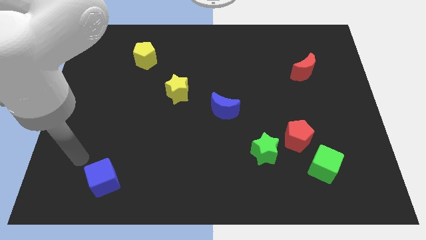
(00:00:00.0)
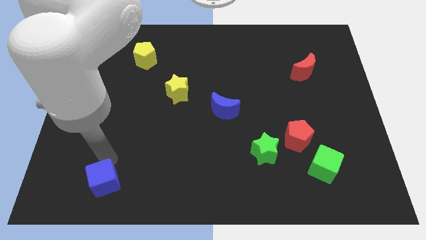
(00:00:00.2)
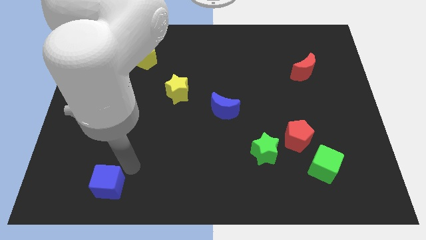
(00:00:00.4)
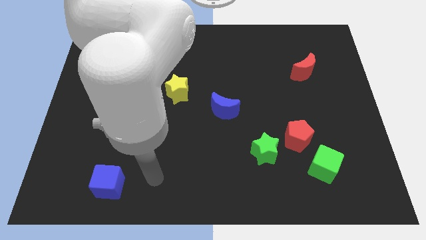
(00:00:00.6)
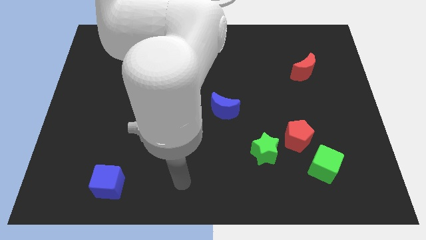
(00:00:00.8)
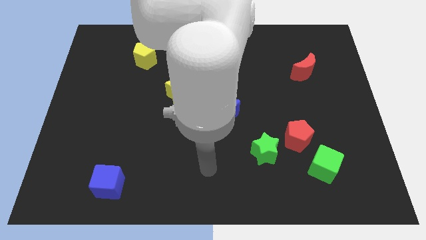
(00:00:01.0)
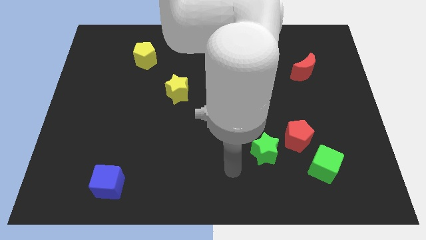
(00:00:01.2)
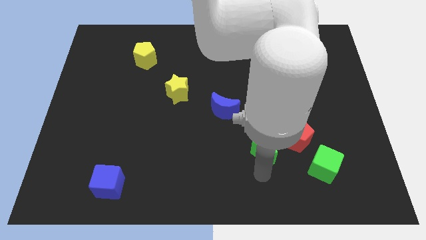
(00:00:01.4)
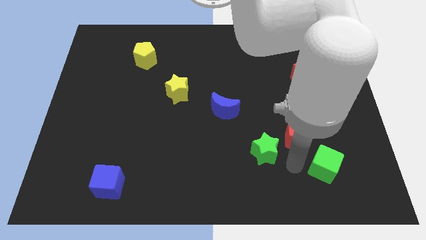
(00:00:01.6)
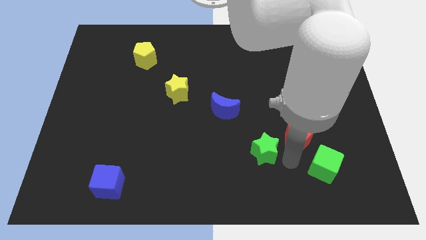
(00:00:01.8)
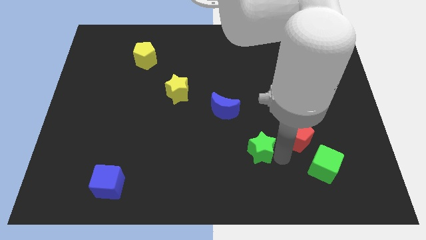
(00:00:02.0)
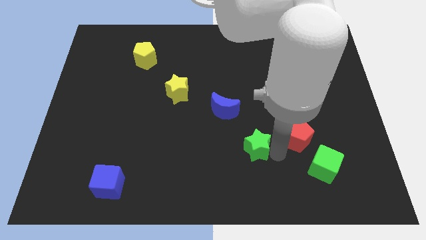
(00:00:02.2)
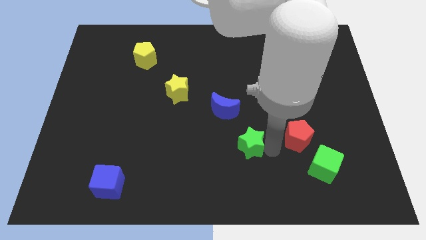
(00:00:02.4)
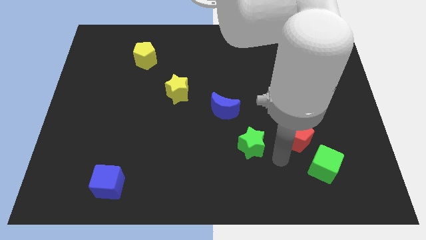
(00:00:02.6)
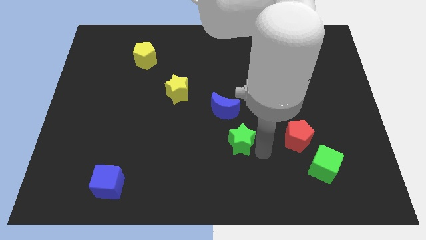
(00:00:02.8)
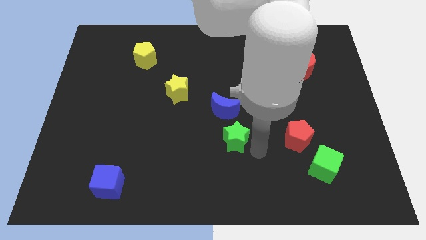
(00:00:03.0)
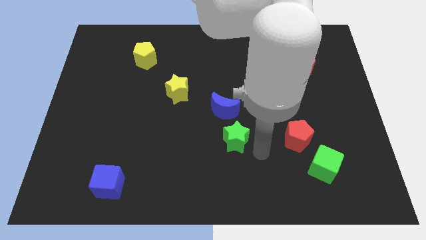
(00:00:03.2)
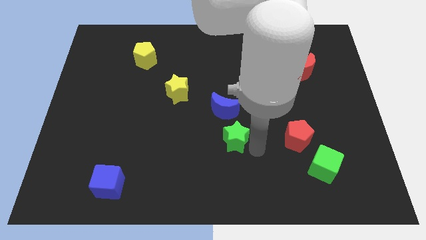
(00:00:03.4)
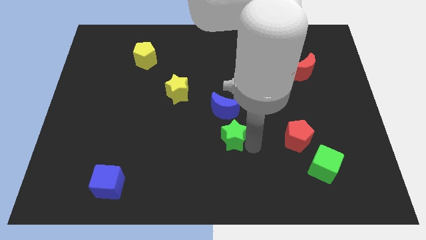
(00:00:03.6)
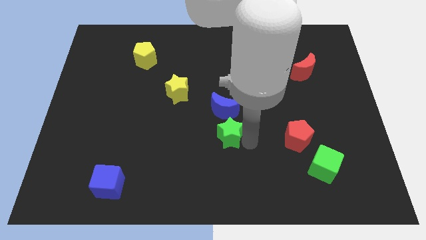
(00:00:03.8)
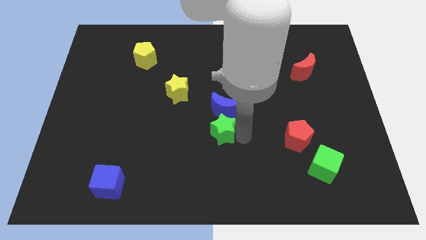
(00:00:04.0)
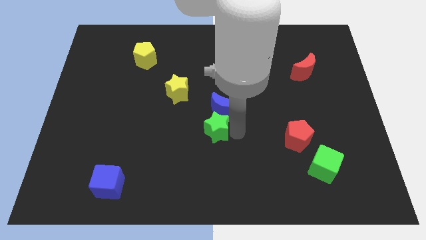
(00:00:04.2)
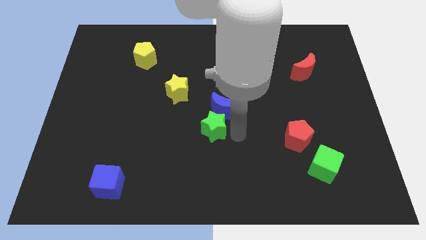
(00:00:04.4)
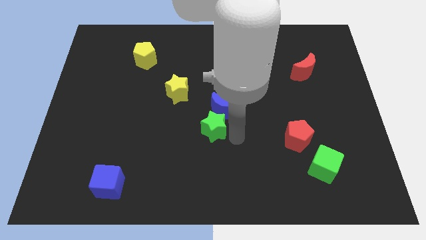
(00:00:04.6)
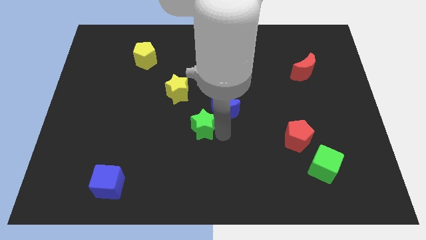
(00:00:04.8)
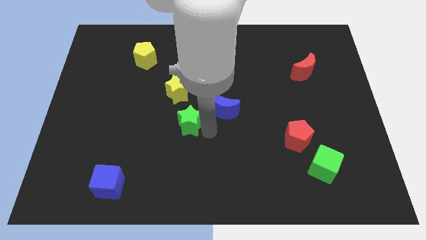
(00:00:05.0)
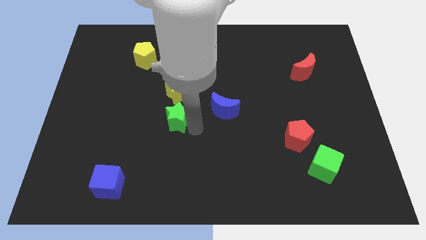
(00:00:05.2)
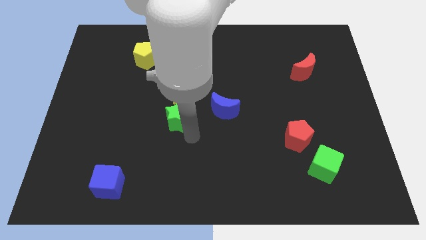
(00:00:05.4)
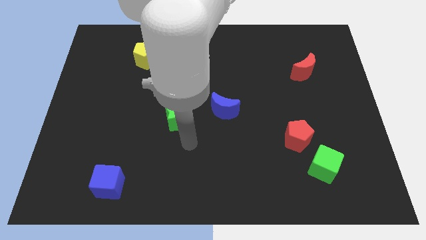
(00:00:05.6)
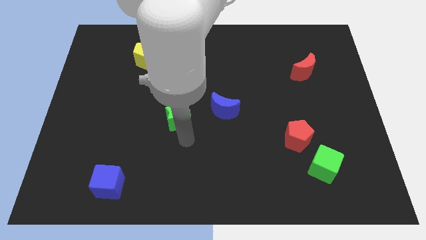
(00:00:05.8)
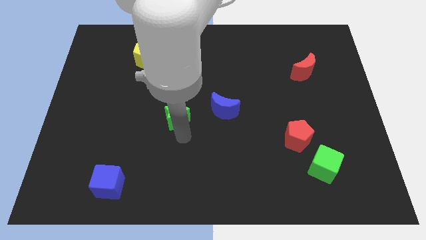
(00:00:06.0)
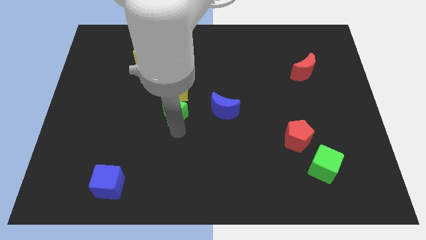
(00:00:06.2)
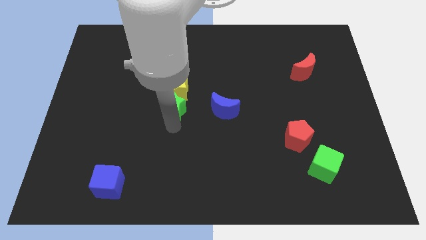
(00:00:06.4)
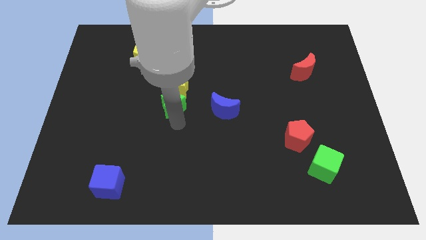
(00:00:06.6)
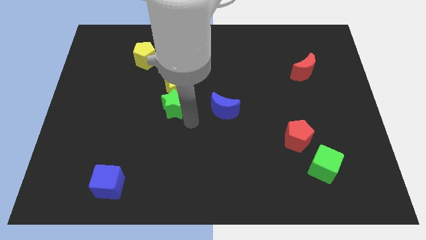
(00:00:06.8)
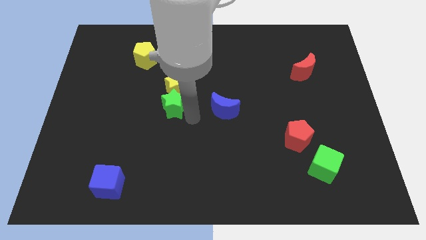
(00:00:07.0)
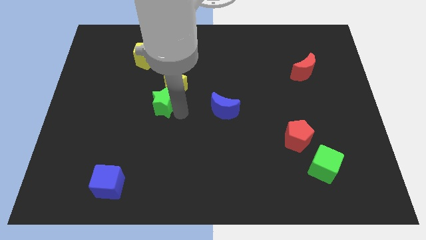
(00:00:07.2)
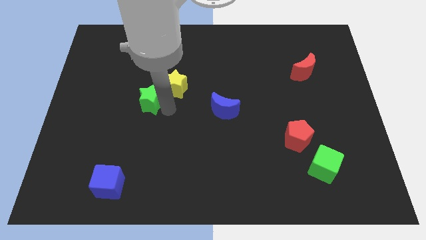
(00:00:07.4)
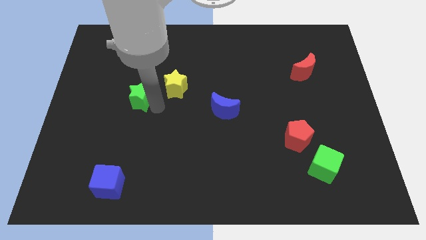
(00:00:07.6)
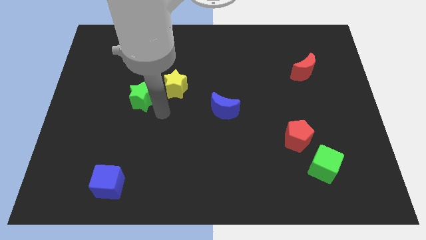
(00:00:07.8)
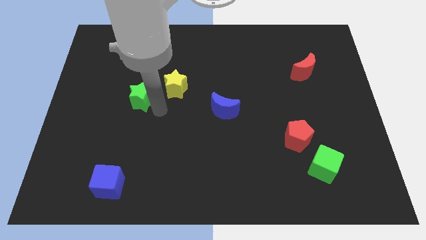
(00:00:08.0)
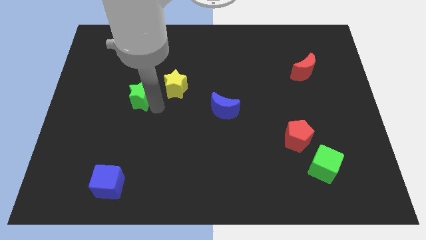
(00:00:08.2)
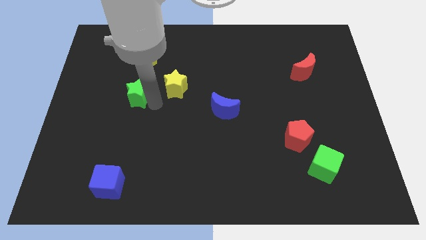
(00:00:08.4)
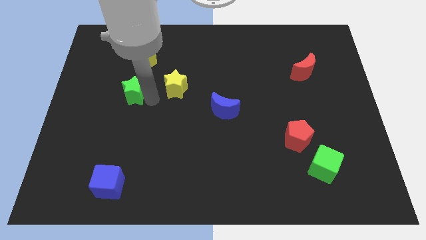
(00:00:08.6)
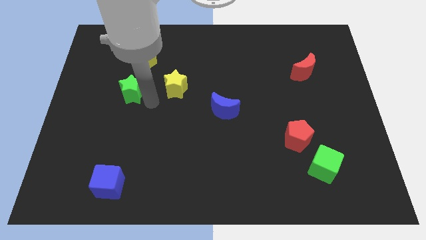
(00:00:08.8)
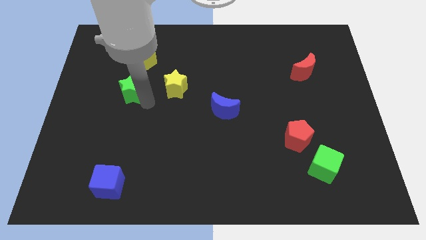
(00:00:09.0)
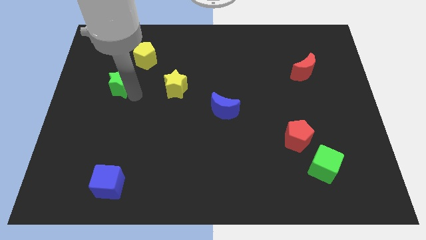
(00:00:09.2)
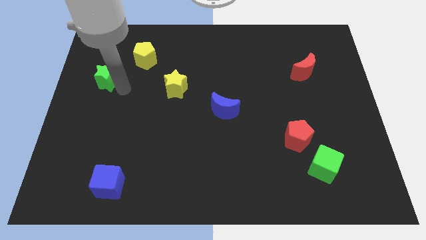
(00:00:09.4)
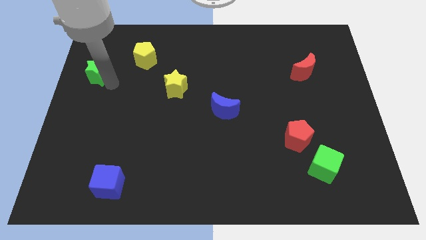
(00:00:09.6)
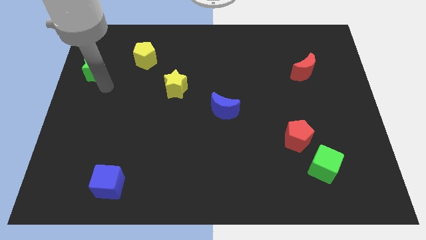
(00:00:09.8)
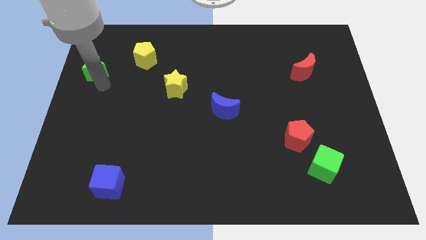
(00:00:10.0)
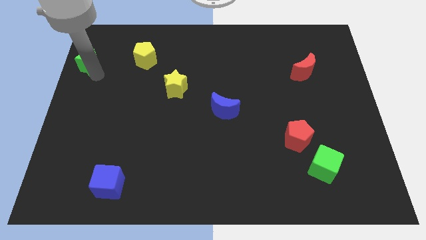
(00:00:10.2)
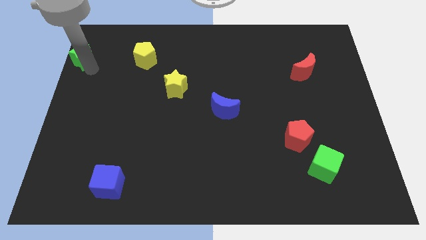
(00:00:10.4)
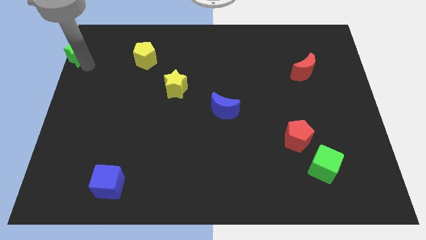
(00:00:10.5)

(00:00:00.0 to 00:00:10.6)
push the green star to the upper left corner

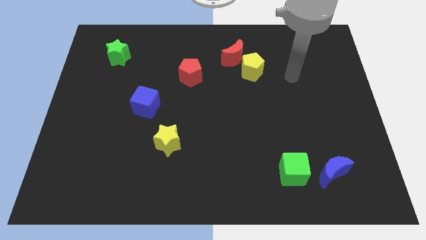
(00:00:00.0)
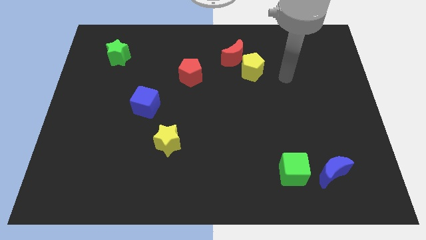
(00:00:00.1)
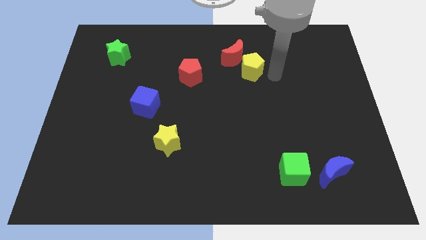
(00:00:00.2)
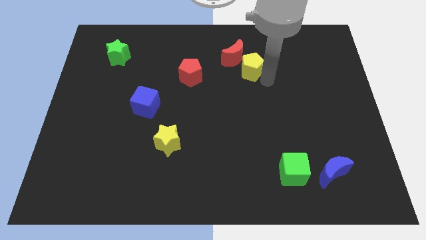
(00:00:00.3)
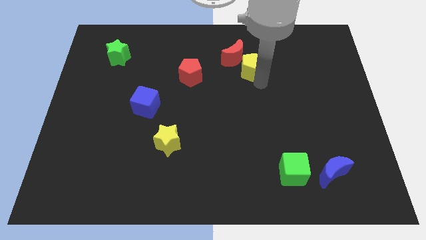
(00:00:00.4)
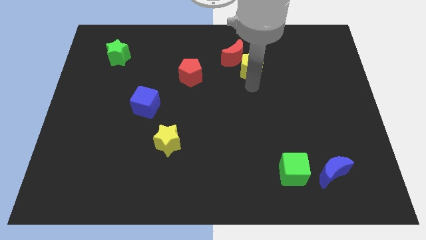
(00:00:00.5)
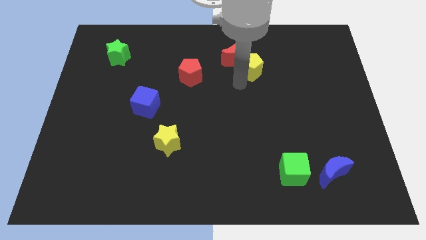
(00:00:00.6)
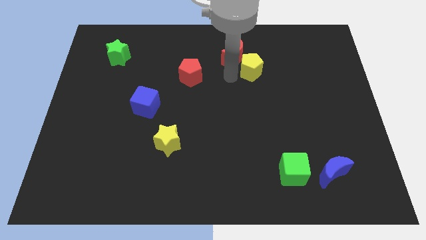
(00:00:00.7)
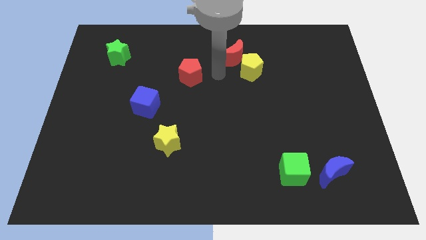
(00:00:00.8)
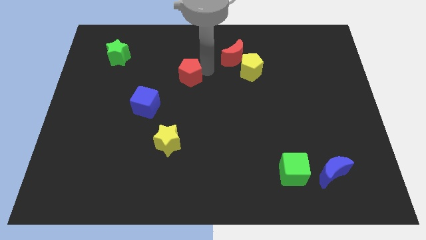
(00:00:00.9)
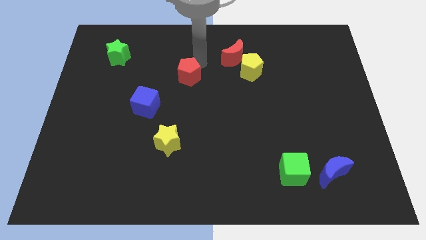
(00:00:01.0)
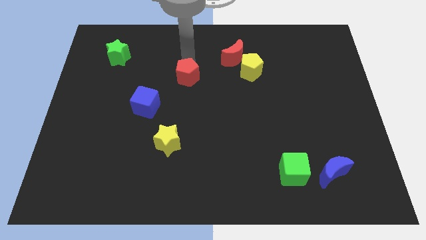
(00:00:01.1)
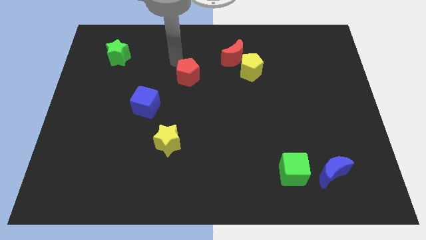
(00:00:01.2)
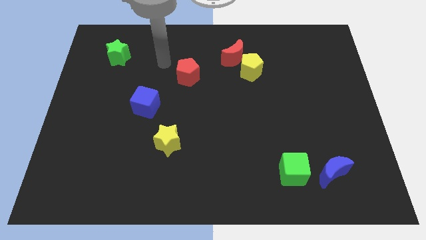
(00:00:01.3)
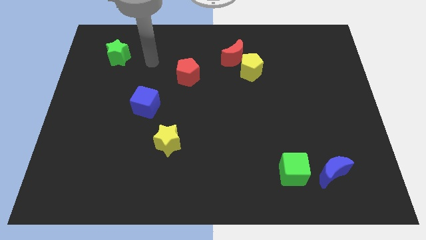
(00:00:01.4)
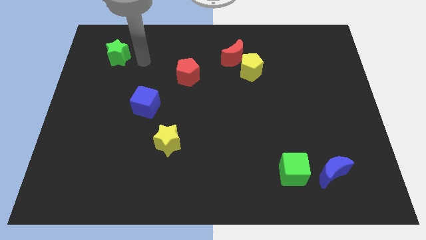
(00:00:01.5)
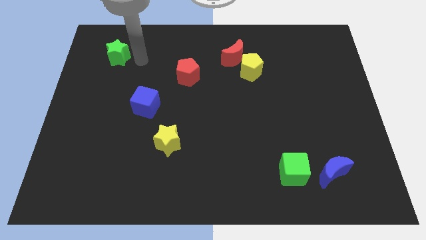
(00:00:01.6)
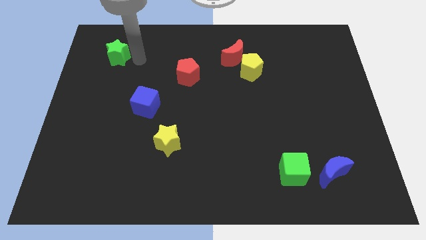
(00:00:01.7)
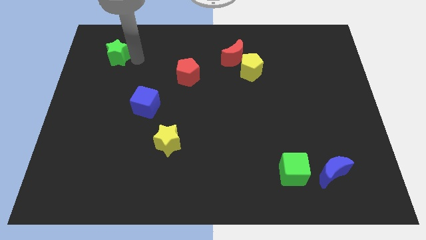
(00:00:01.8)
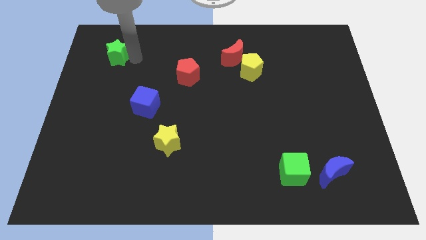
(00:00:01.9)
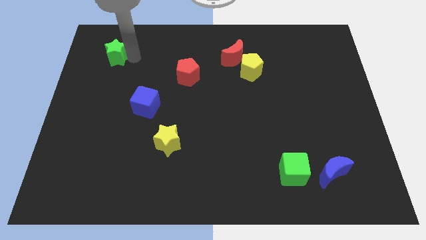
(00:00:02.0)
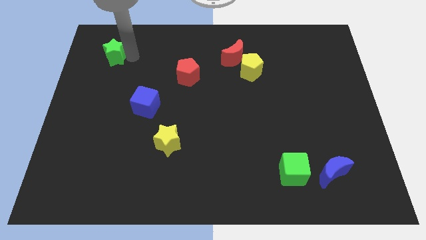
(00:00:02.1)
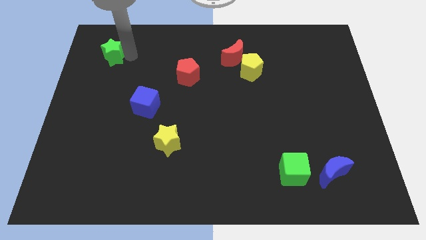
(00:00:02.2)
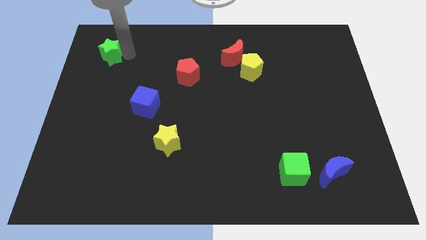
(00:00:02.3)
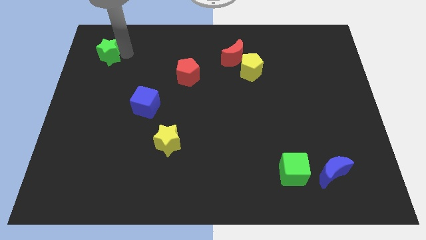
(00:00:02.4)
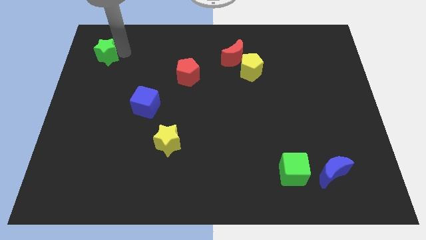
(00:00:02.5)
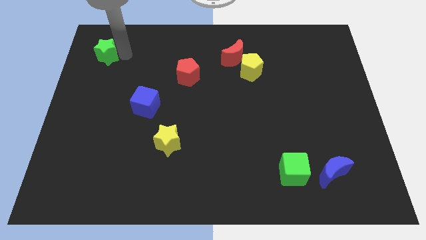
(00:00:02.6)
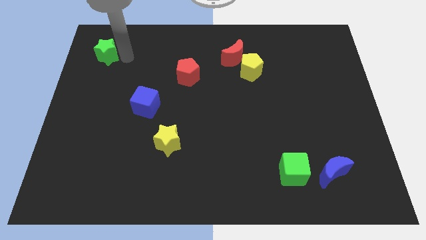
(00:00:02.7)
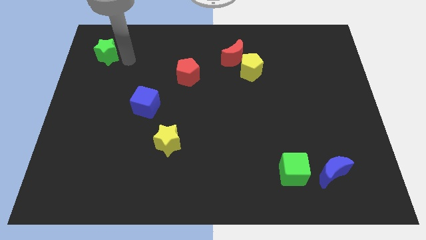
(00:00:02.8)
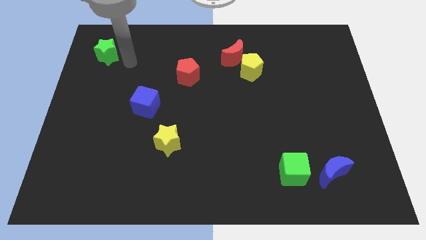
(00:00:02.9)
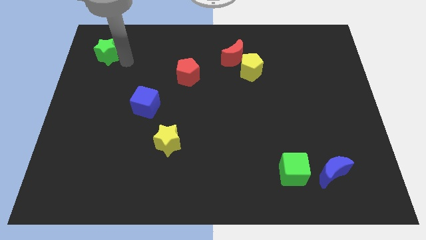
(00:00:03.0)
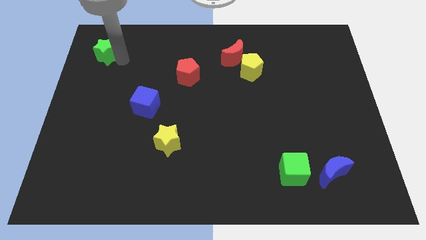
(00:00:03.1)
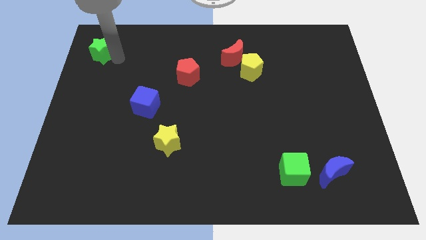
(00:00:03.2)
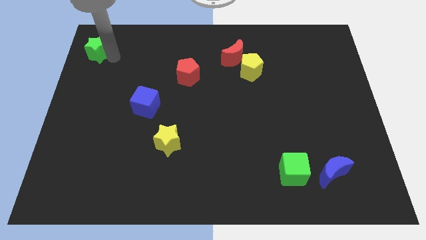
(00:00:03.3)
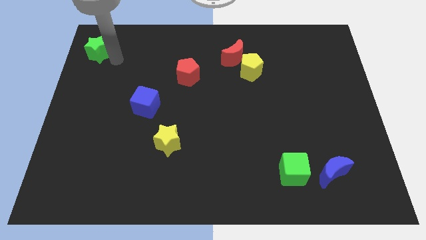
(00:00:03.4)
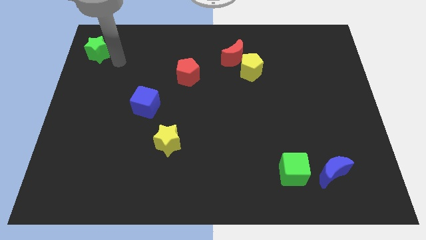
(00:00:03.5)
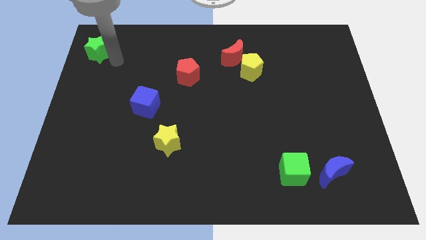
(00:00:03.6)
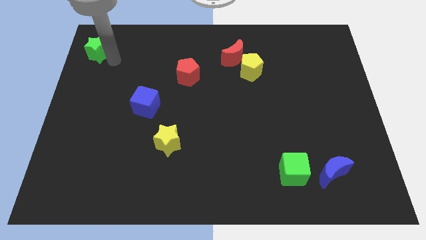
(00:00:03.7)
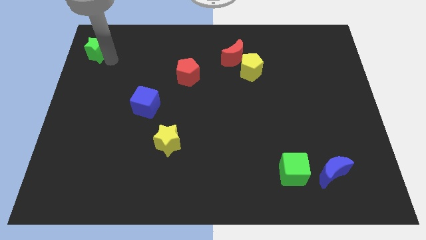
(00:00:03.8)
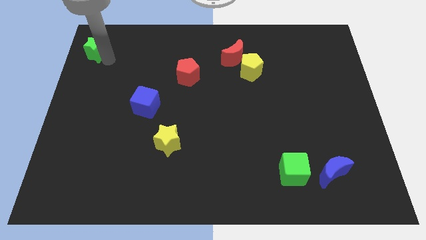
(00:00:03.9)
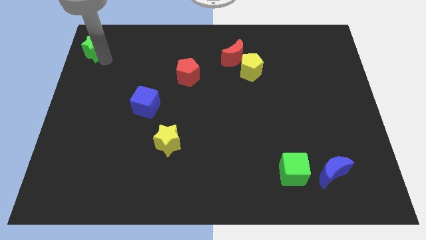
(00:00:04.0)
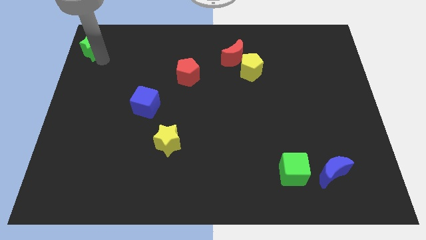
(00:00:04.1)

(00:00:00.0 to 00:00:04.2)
move the green star to the top left of the board
